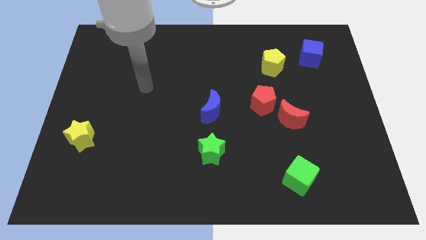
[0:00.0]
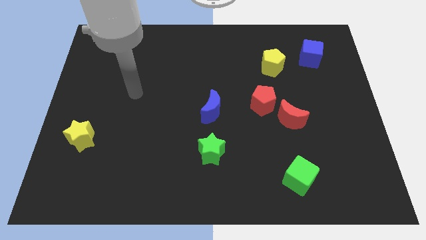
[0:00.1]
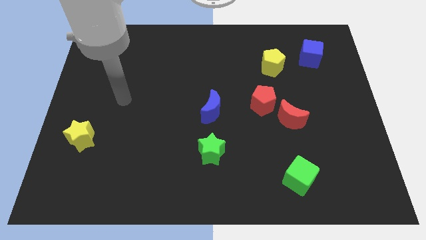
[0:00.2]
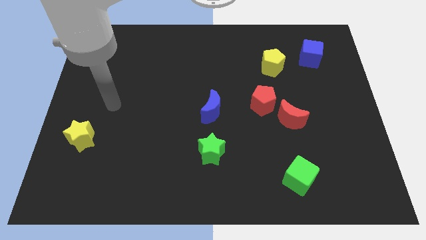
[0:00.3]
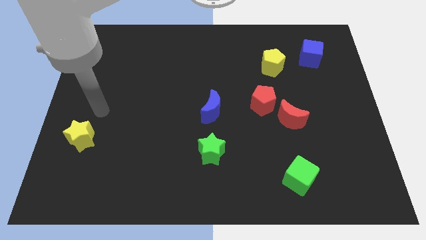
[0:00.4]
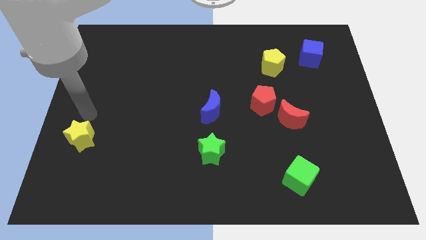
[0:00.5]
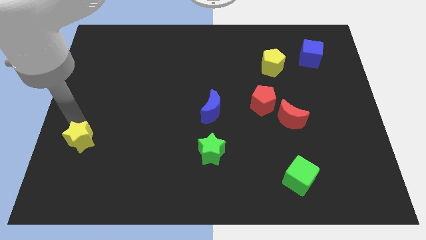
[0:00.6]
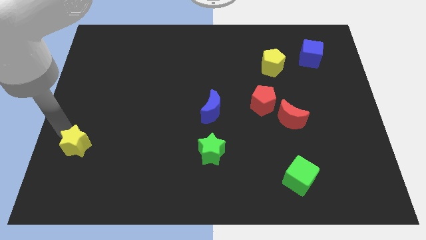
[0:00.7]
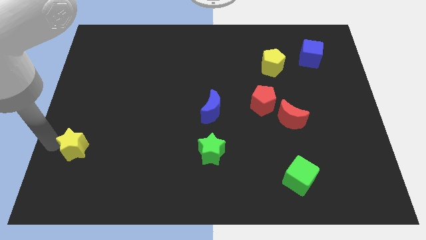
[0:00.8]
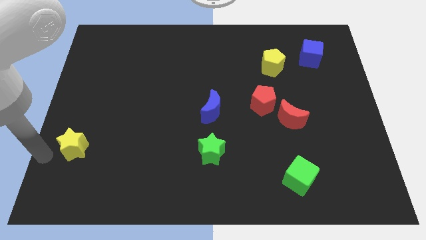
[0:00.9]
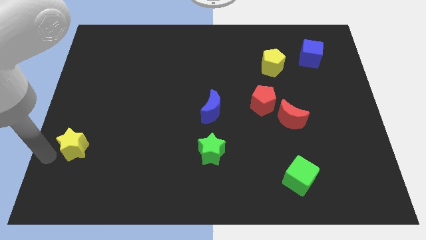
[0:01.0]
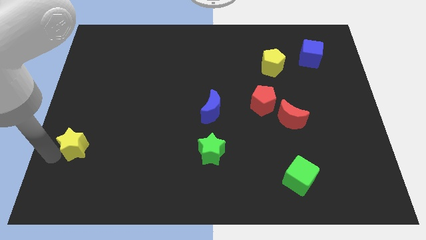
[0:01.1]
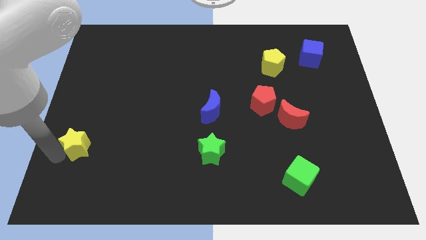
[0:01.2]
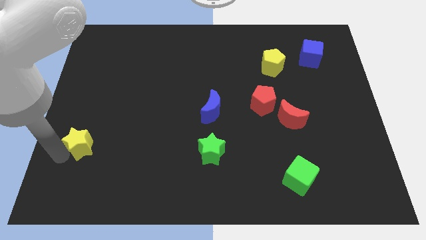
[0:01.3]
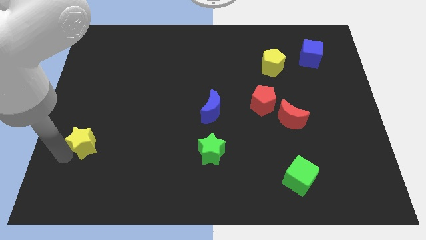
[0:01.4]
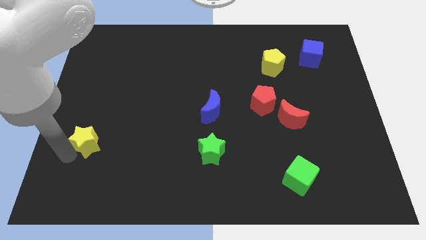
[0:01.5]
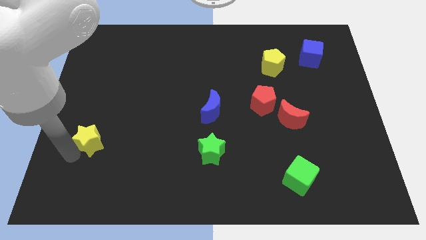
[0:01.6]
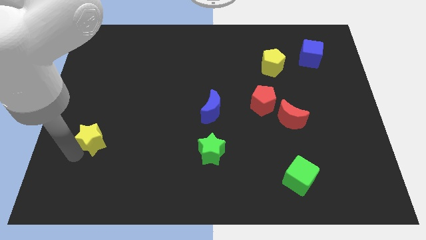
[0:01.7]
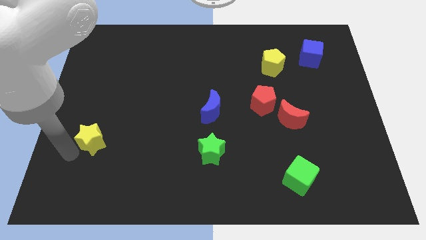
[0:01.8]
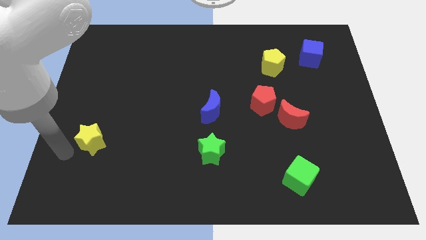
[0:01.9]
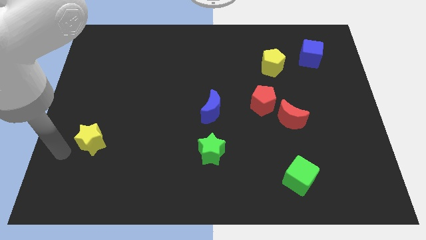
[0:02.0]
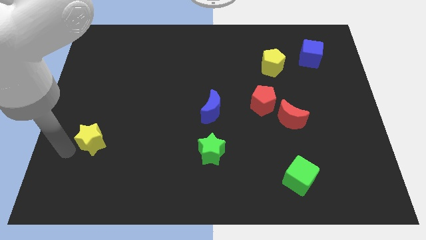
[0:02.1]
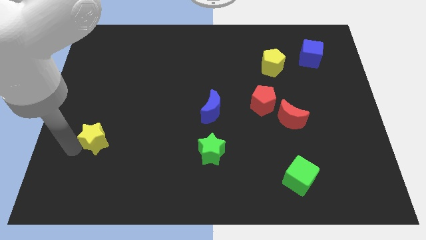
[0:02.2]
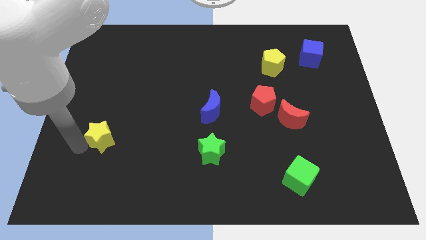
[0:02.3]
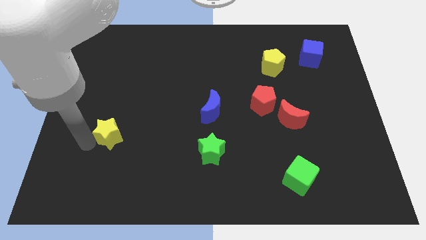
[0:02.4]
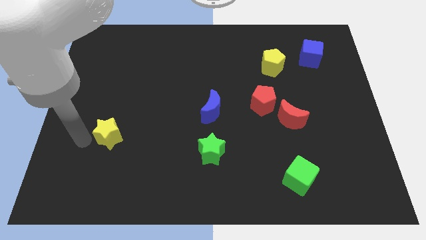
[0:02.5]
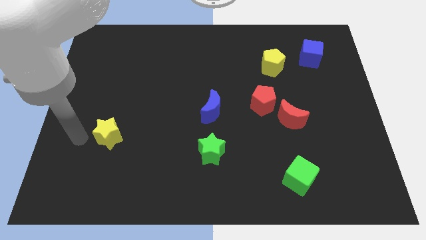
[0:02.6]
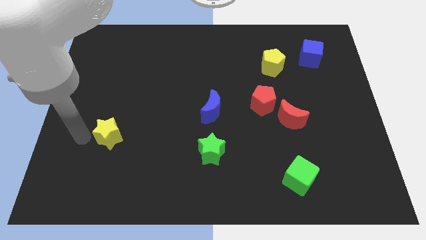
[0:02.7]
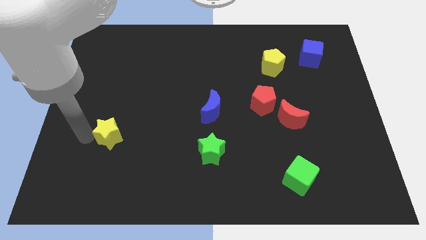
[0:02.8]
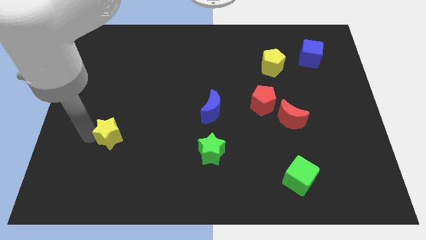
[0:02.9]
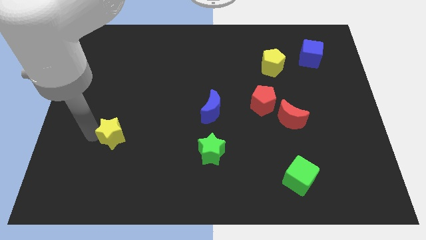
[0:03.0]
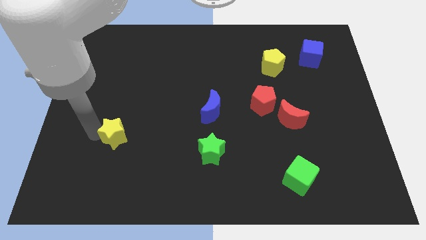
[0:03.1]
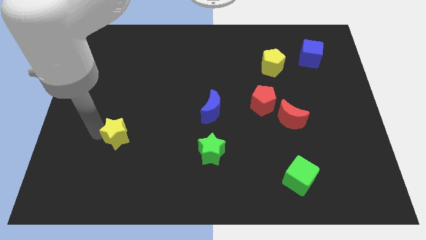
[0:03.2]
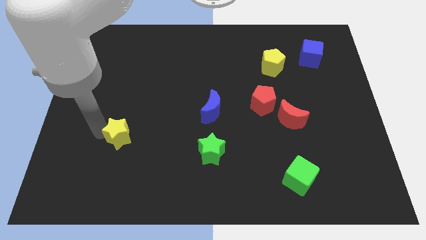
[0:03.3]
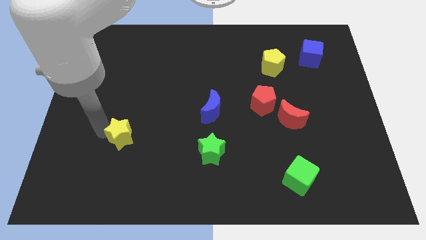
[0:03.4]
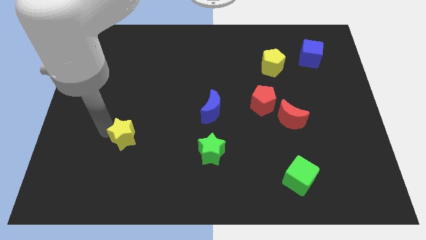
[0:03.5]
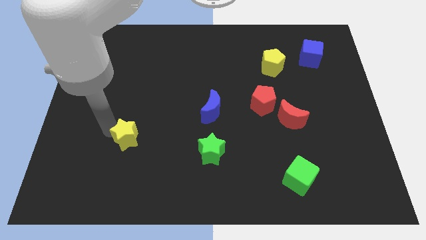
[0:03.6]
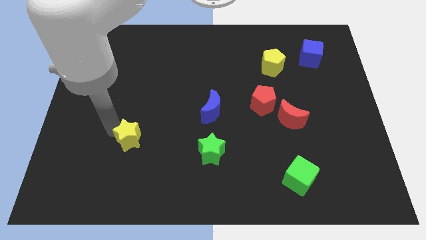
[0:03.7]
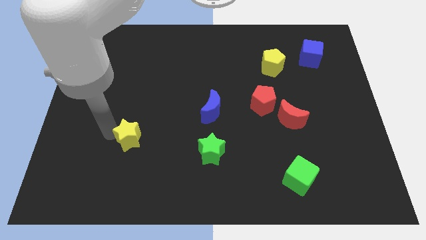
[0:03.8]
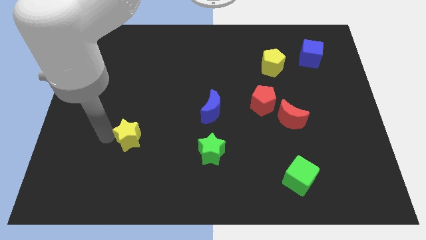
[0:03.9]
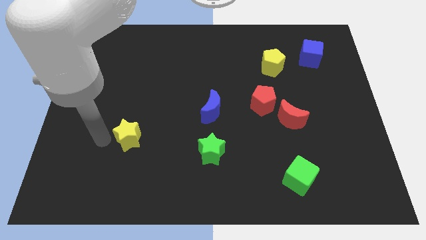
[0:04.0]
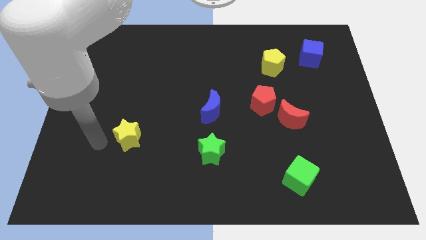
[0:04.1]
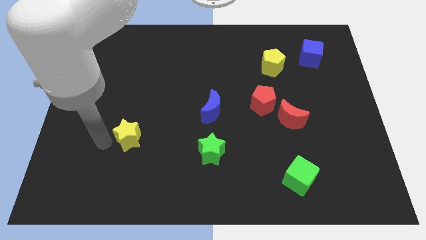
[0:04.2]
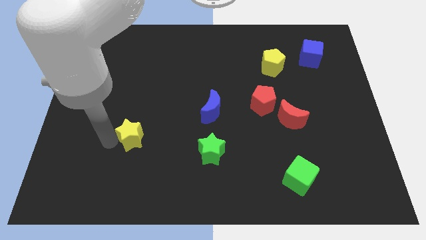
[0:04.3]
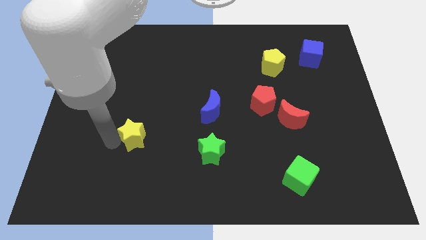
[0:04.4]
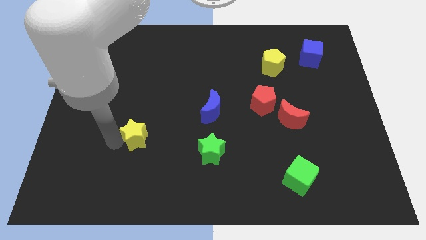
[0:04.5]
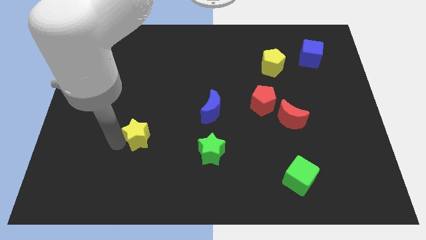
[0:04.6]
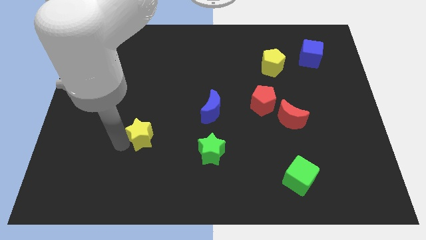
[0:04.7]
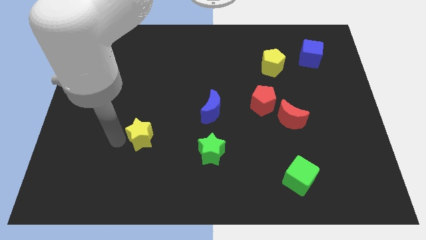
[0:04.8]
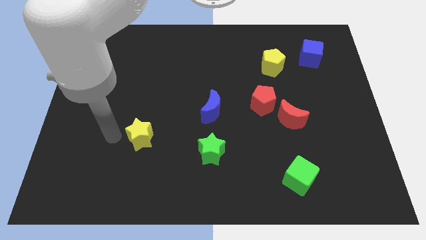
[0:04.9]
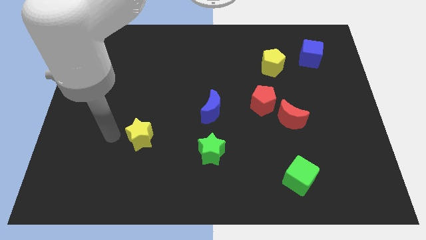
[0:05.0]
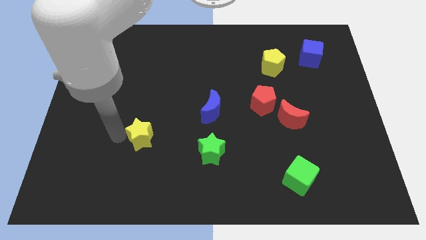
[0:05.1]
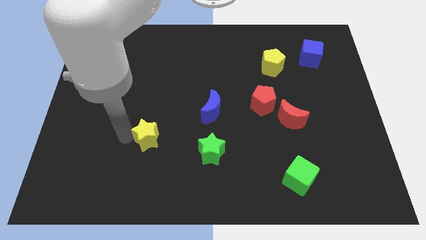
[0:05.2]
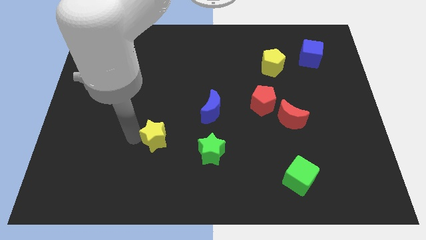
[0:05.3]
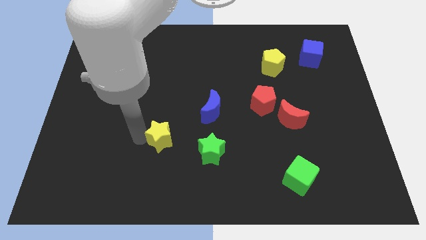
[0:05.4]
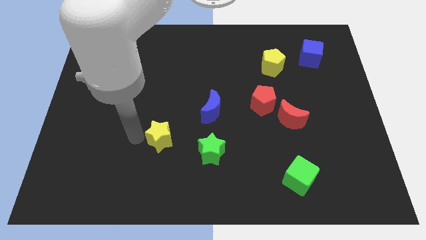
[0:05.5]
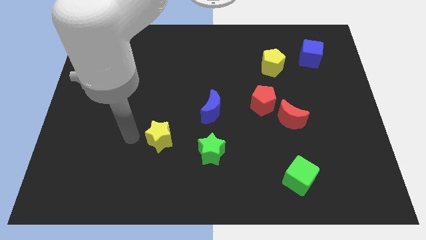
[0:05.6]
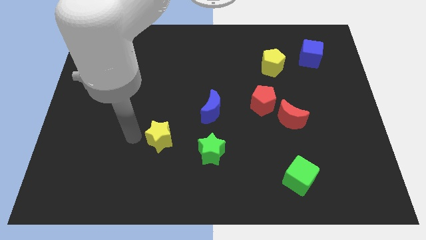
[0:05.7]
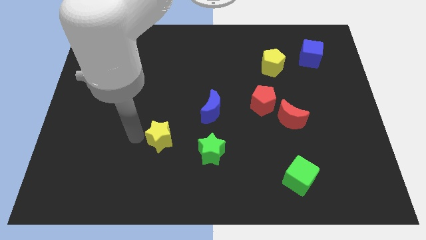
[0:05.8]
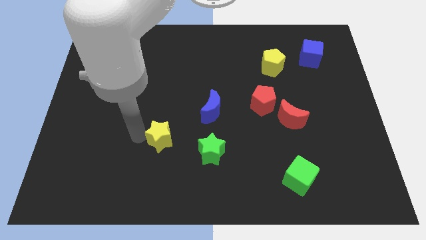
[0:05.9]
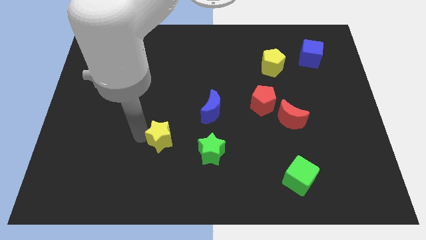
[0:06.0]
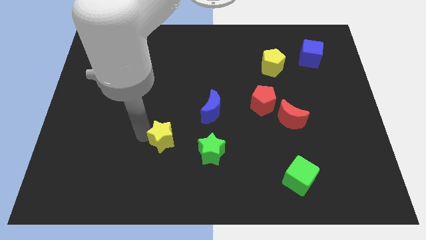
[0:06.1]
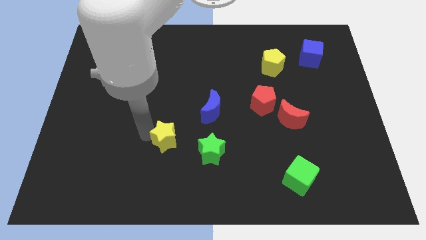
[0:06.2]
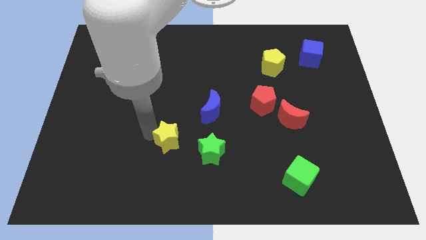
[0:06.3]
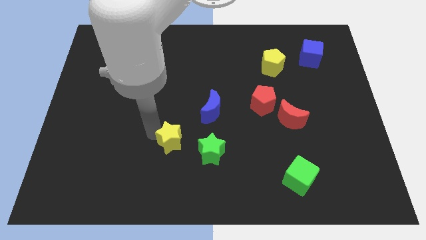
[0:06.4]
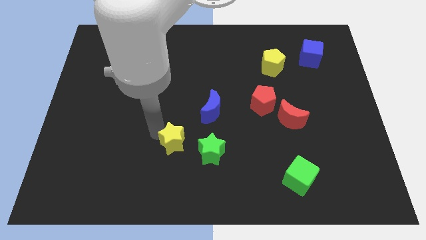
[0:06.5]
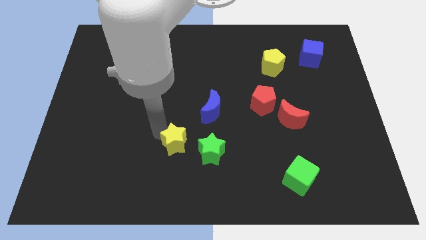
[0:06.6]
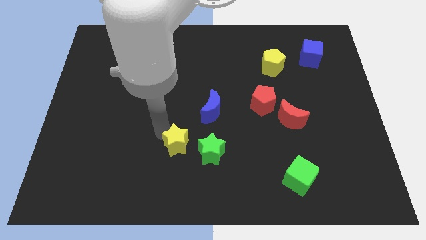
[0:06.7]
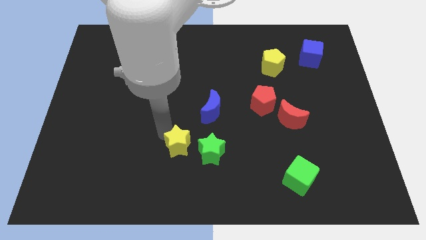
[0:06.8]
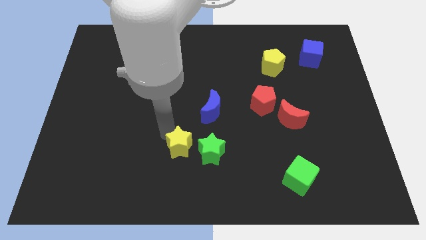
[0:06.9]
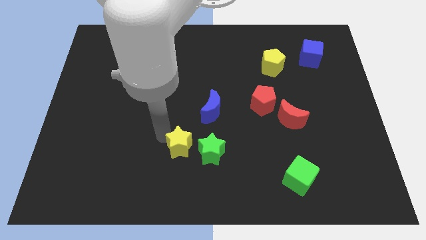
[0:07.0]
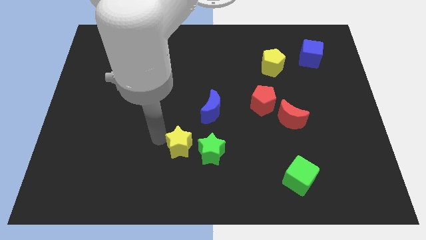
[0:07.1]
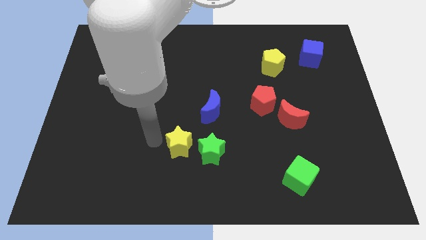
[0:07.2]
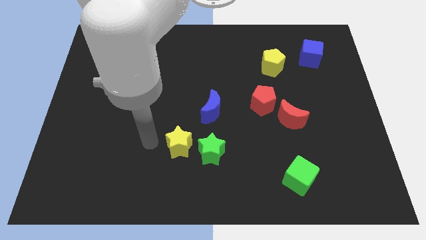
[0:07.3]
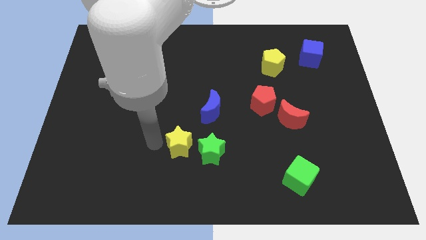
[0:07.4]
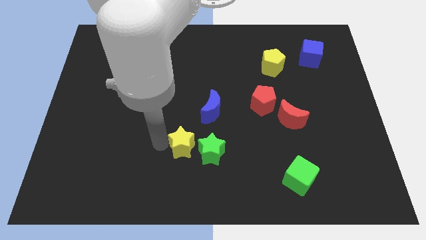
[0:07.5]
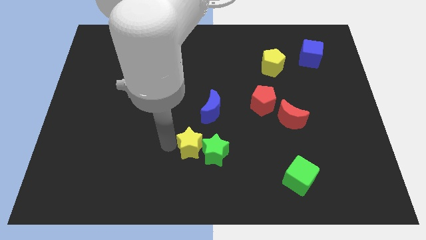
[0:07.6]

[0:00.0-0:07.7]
put the yellow star close to the green star
